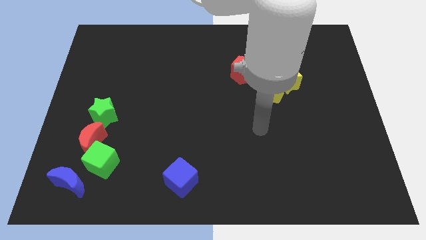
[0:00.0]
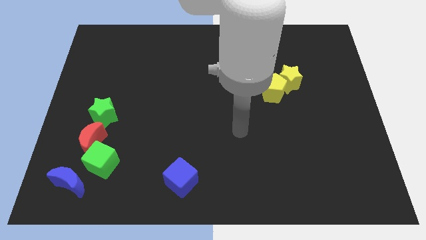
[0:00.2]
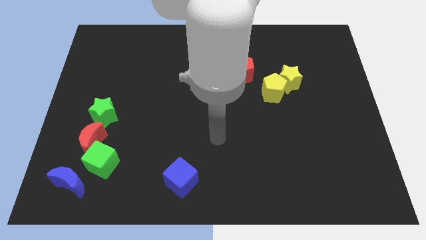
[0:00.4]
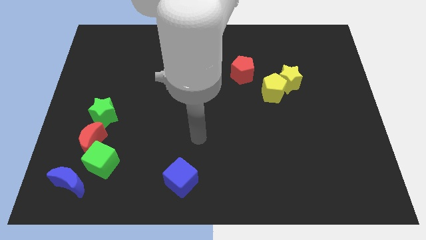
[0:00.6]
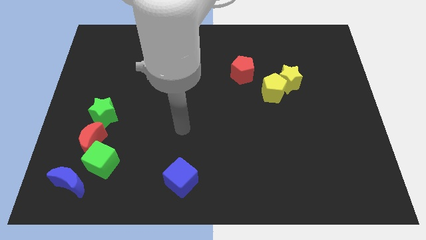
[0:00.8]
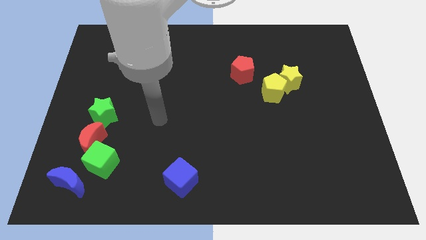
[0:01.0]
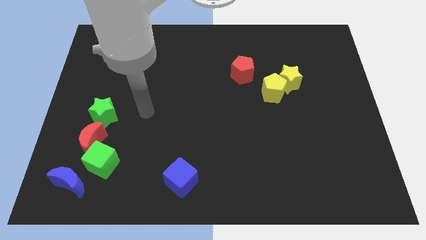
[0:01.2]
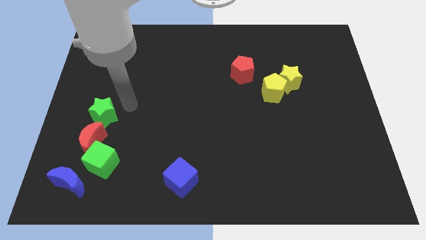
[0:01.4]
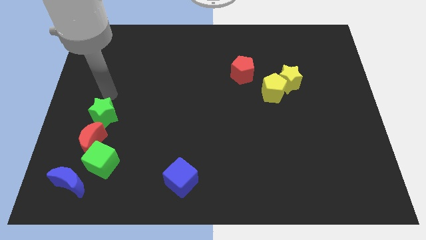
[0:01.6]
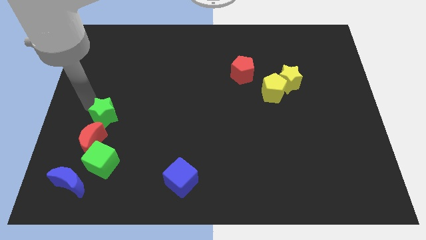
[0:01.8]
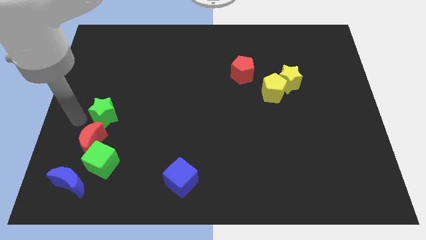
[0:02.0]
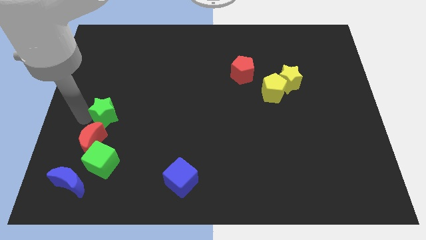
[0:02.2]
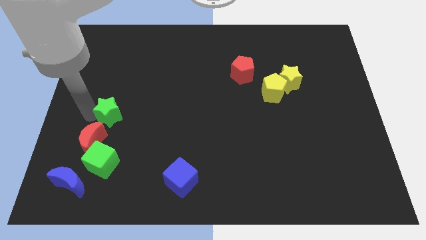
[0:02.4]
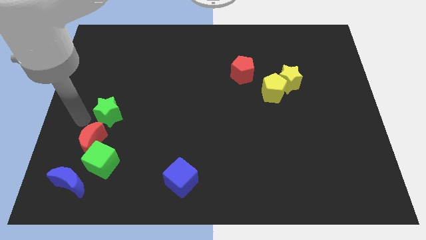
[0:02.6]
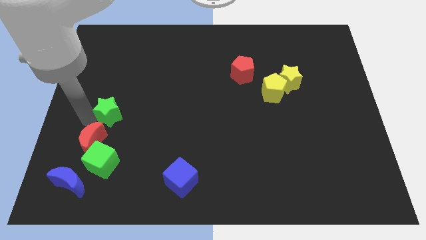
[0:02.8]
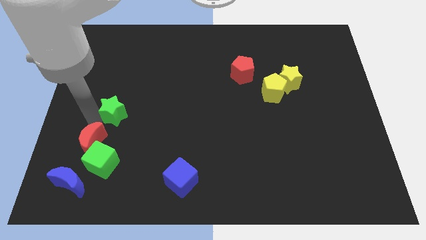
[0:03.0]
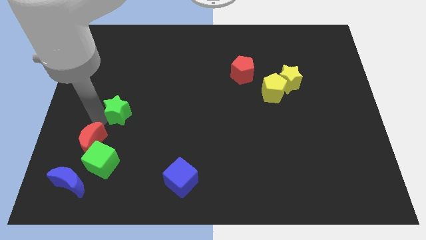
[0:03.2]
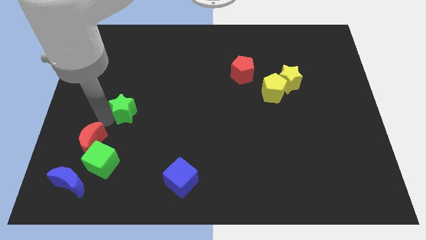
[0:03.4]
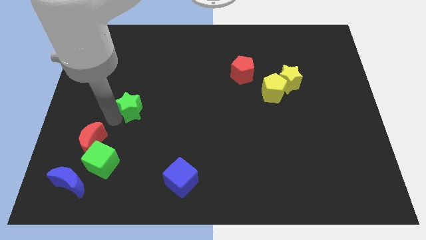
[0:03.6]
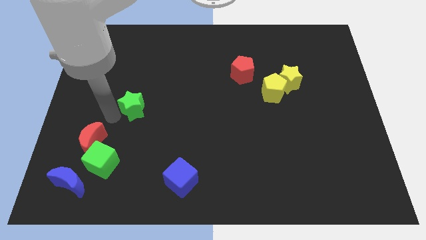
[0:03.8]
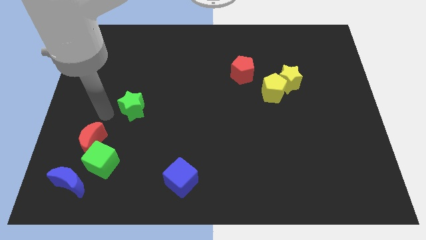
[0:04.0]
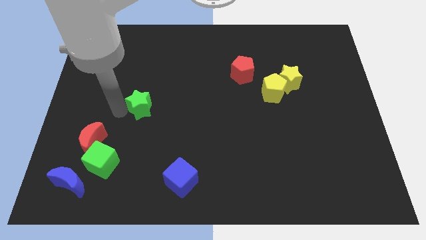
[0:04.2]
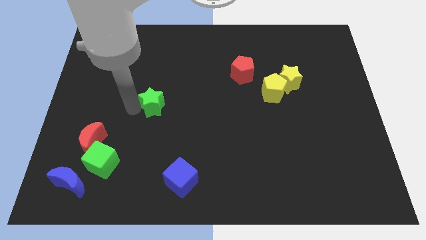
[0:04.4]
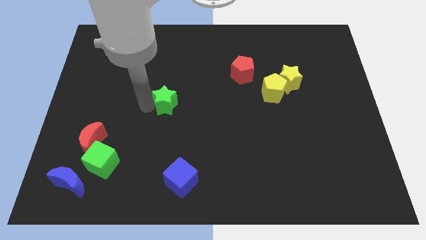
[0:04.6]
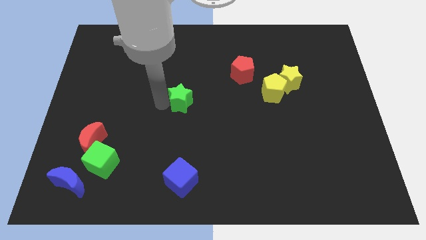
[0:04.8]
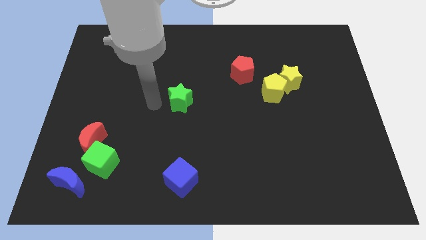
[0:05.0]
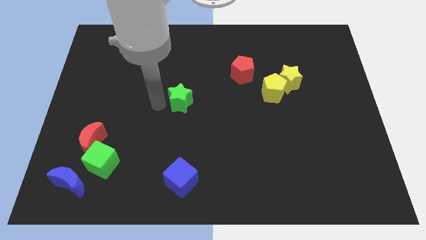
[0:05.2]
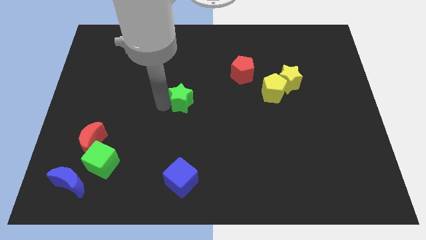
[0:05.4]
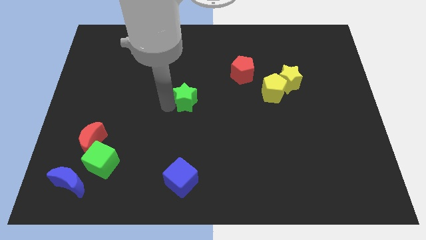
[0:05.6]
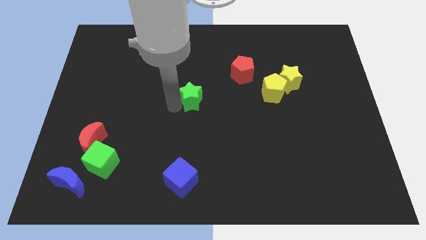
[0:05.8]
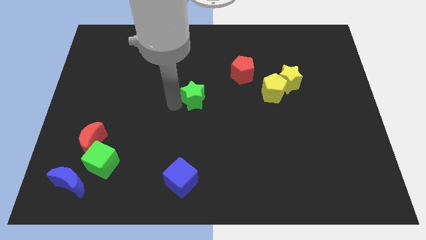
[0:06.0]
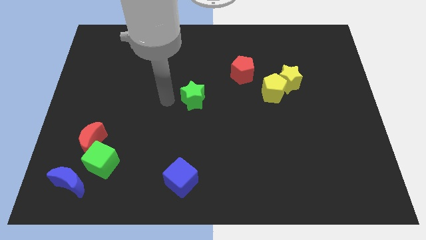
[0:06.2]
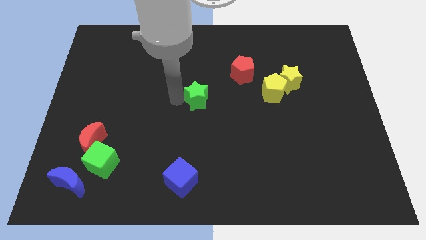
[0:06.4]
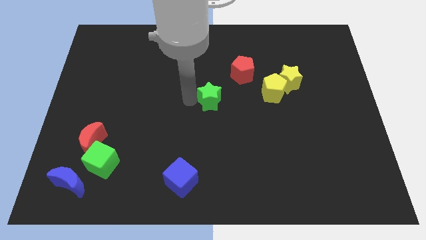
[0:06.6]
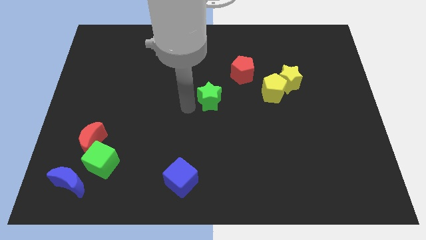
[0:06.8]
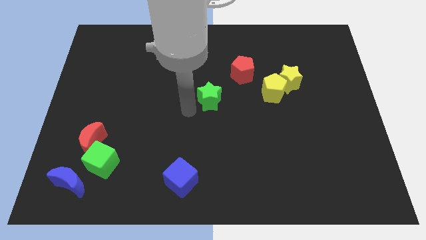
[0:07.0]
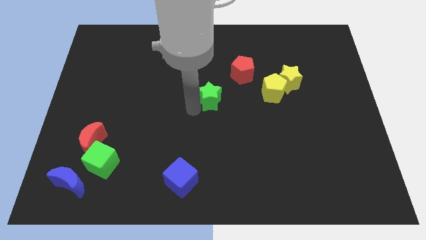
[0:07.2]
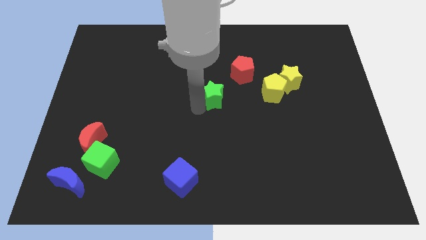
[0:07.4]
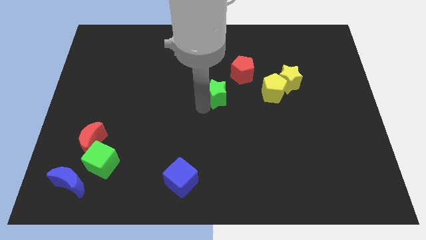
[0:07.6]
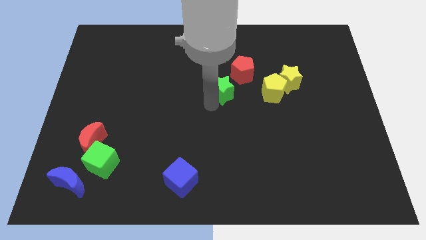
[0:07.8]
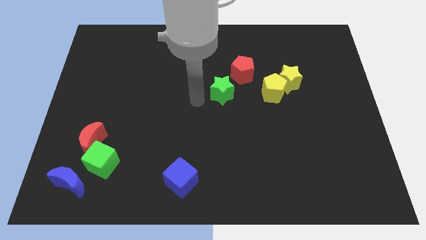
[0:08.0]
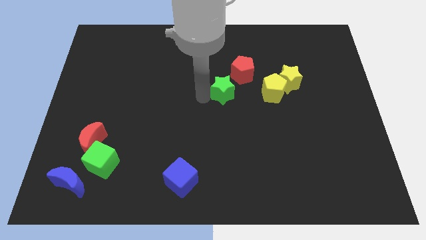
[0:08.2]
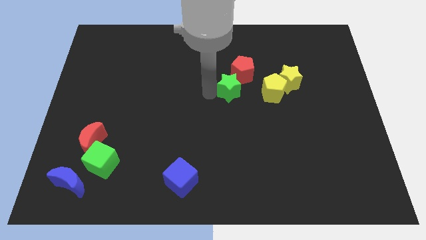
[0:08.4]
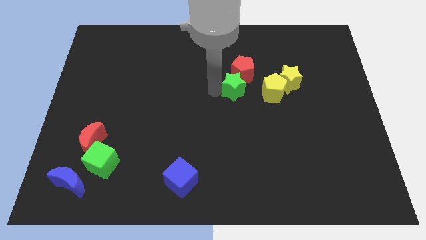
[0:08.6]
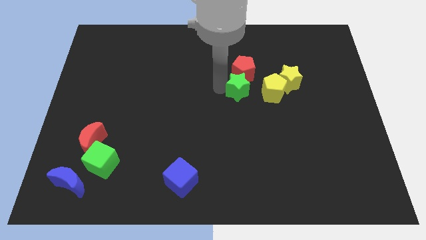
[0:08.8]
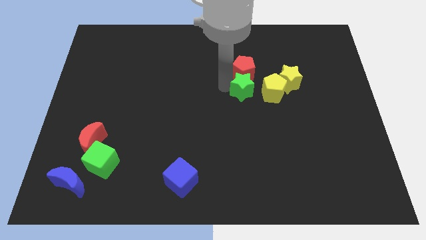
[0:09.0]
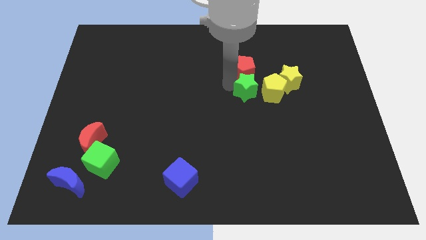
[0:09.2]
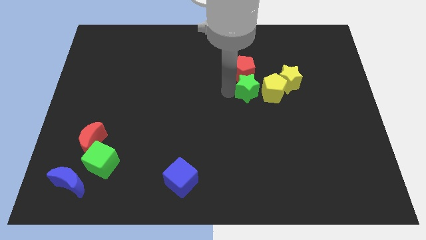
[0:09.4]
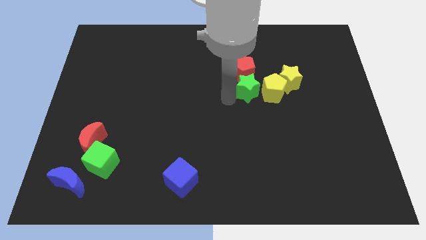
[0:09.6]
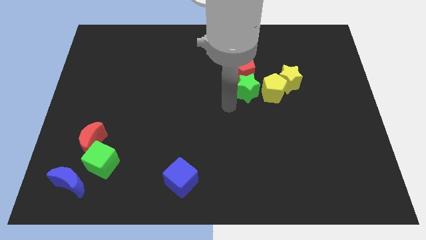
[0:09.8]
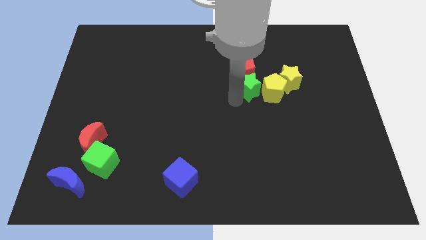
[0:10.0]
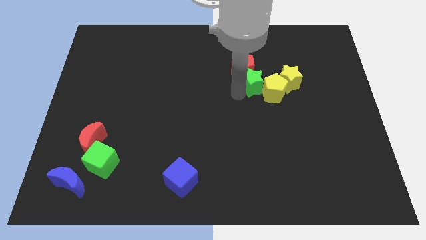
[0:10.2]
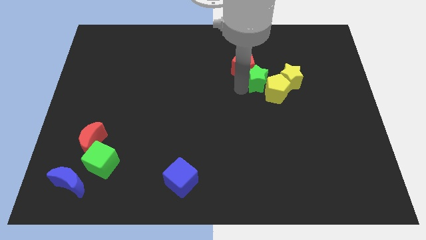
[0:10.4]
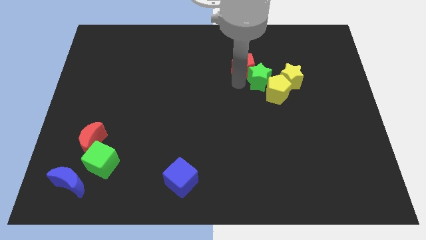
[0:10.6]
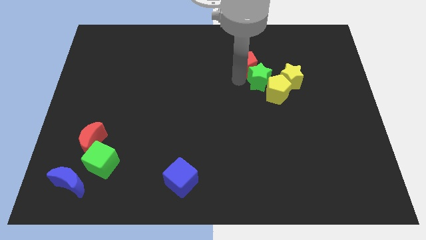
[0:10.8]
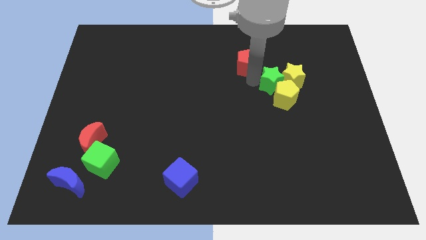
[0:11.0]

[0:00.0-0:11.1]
slide the green star close to the yellow star

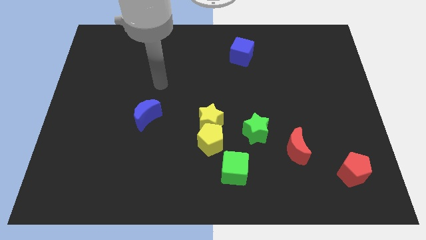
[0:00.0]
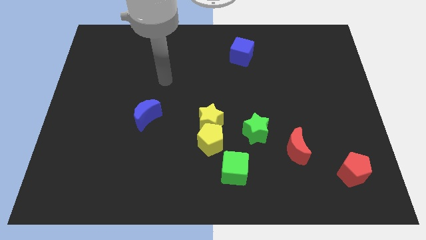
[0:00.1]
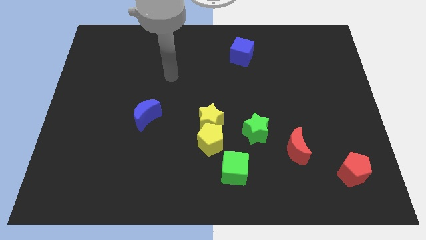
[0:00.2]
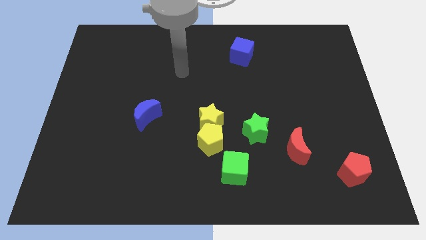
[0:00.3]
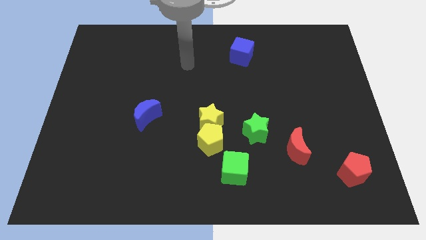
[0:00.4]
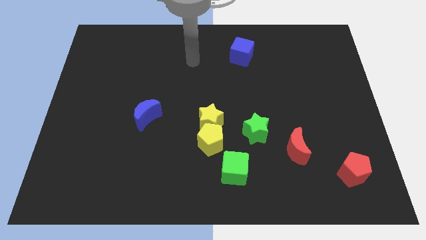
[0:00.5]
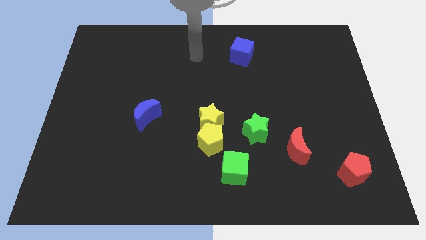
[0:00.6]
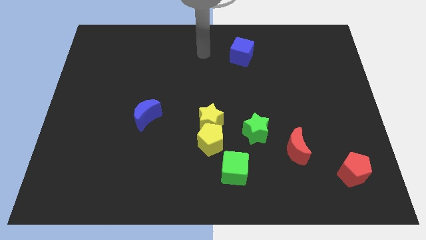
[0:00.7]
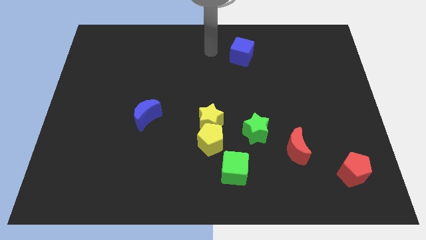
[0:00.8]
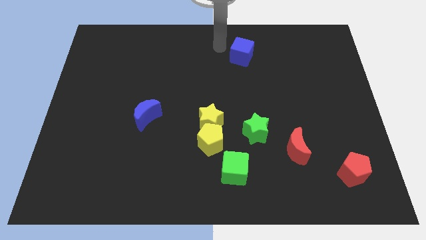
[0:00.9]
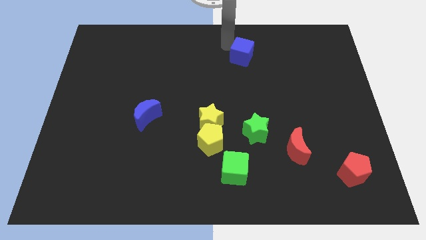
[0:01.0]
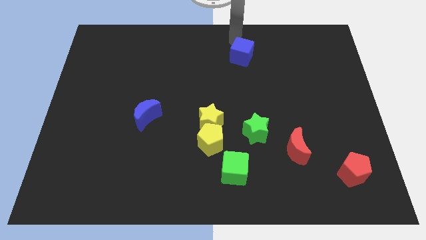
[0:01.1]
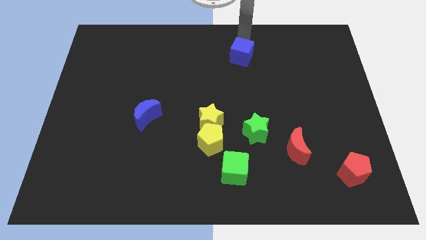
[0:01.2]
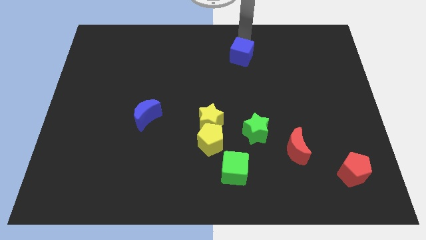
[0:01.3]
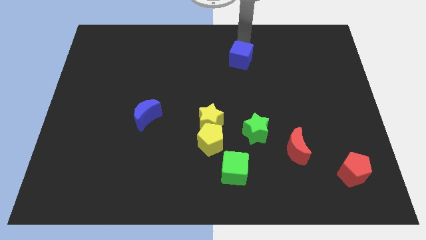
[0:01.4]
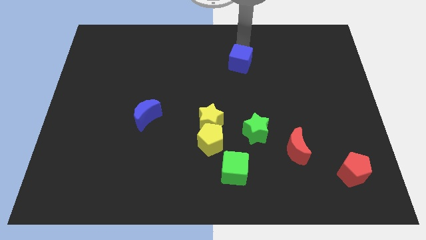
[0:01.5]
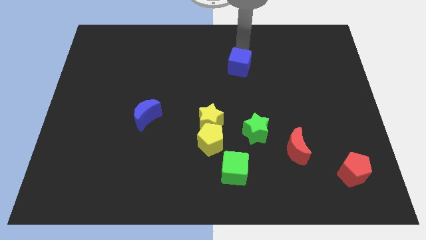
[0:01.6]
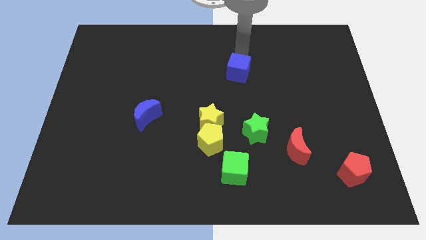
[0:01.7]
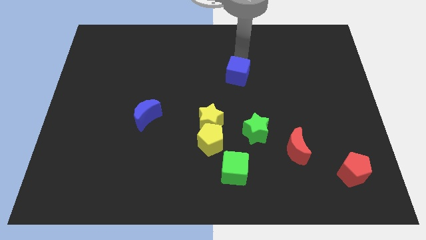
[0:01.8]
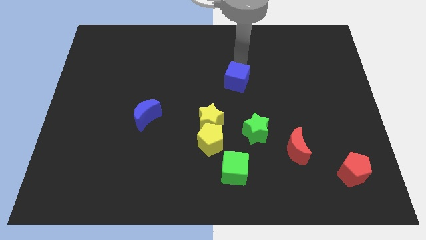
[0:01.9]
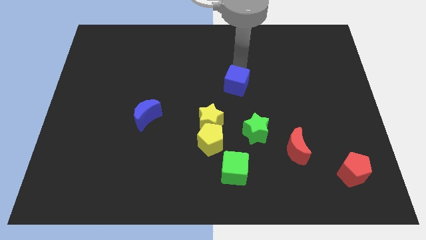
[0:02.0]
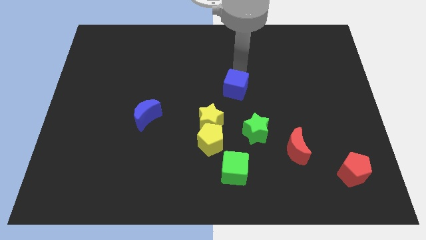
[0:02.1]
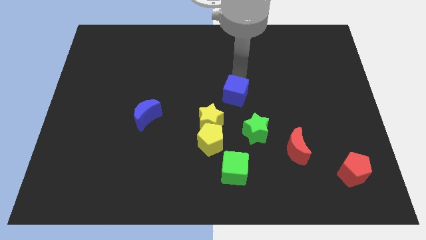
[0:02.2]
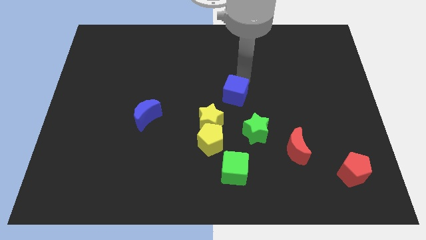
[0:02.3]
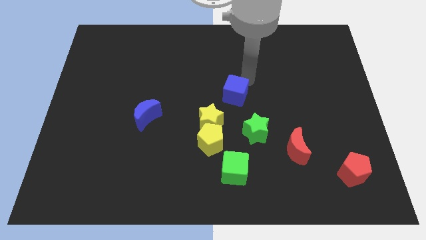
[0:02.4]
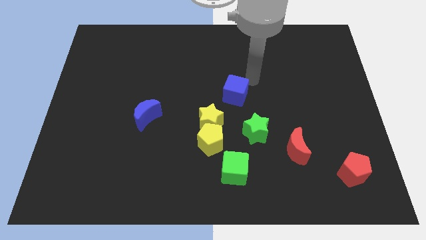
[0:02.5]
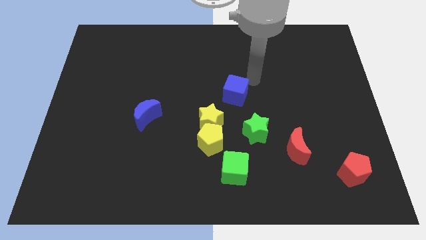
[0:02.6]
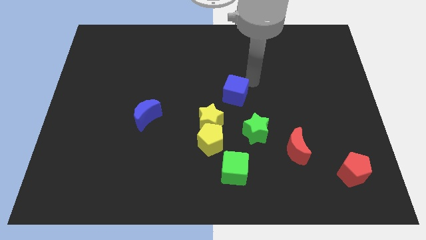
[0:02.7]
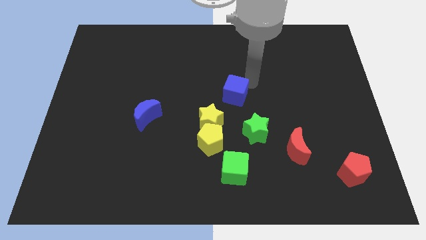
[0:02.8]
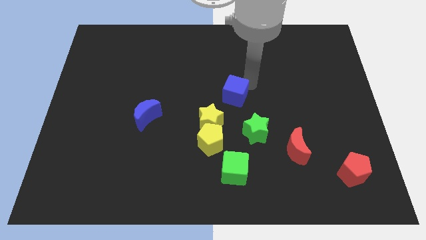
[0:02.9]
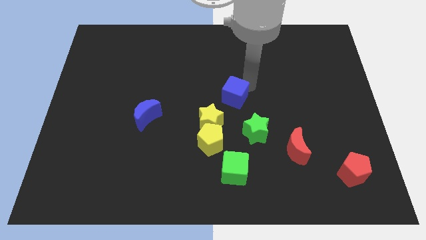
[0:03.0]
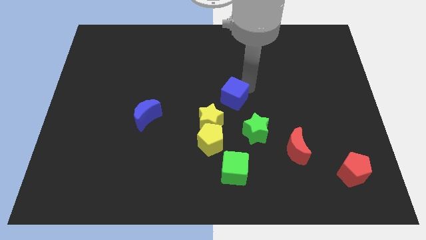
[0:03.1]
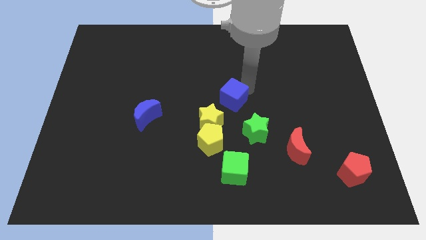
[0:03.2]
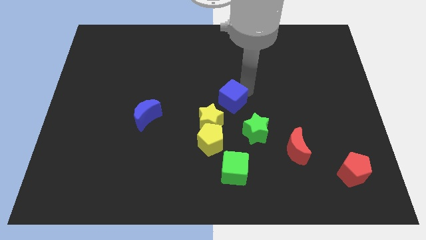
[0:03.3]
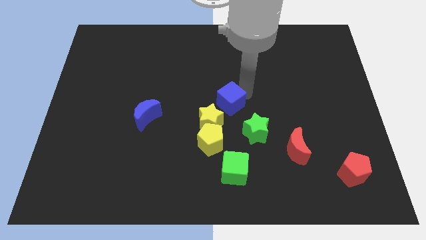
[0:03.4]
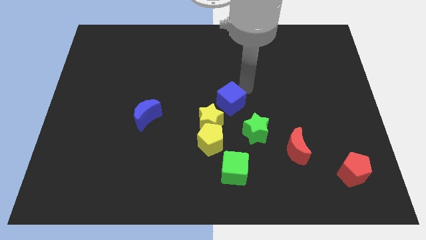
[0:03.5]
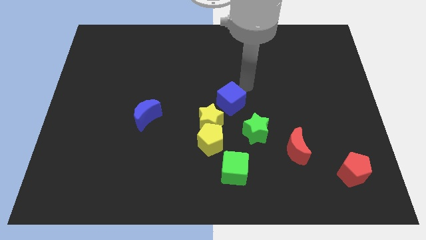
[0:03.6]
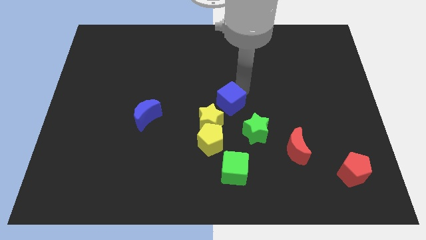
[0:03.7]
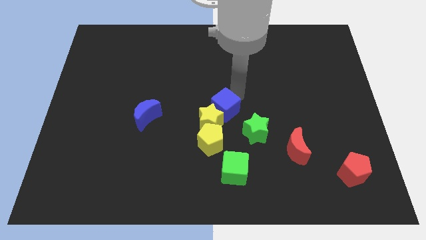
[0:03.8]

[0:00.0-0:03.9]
push the blue cube close to the yellow star
